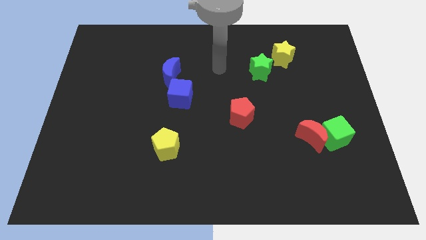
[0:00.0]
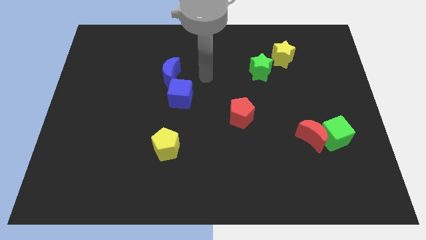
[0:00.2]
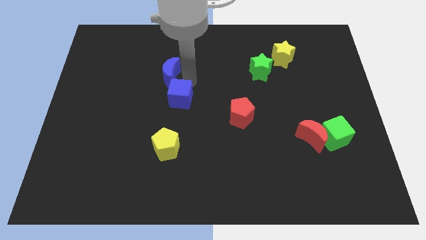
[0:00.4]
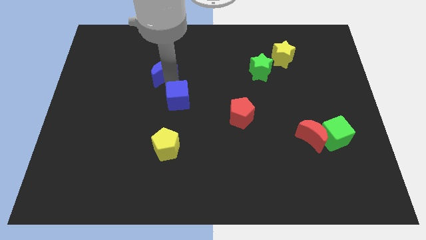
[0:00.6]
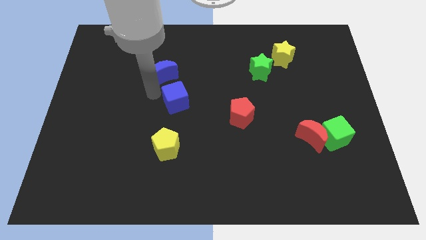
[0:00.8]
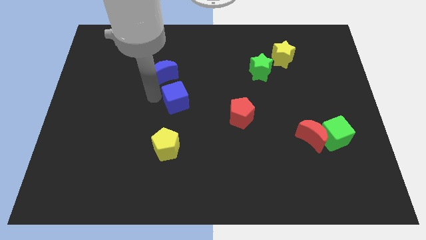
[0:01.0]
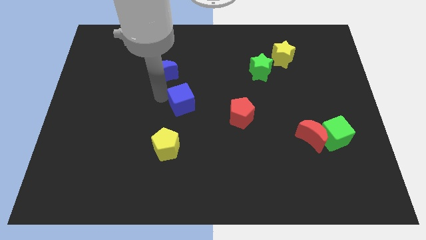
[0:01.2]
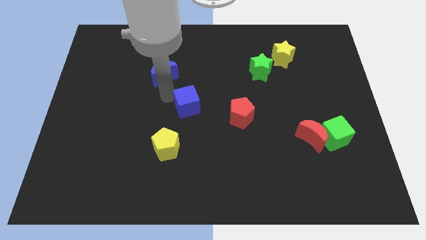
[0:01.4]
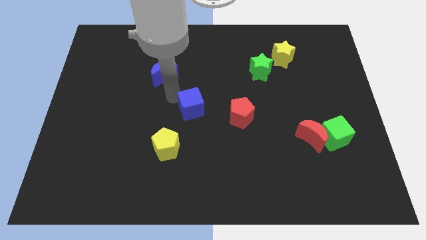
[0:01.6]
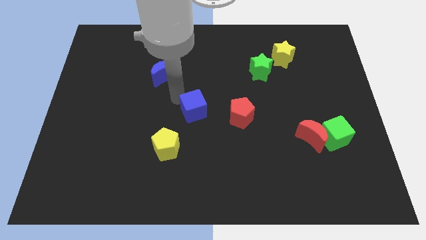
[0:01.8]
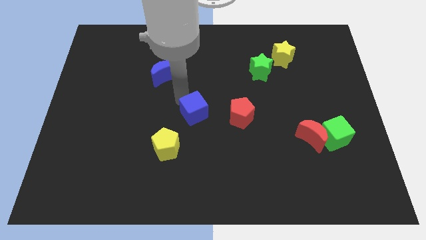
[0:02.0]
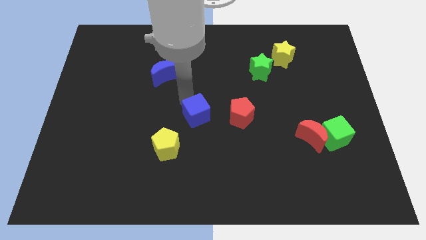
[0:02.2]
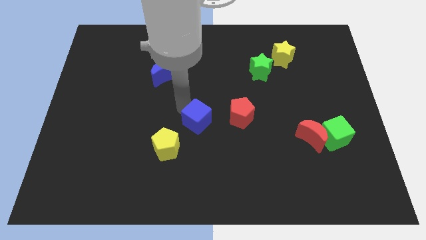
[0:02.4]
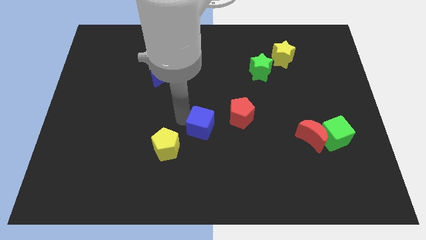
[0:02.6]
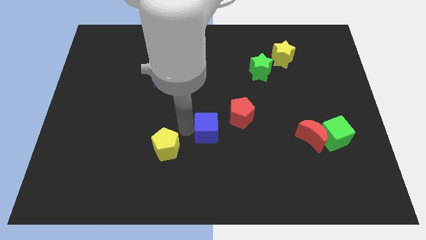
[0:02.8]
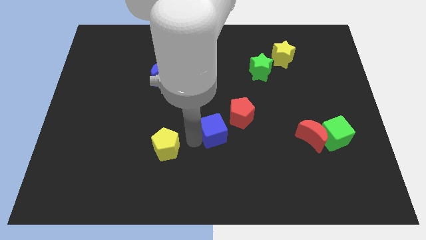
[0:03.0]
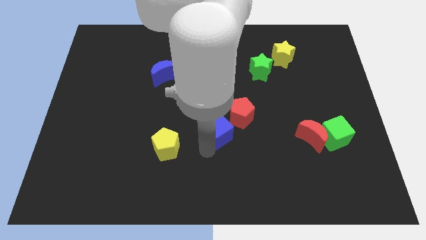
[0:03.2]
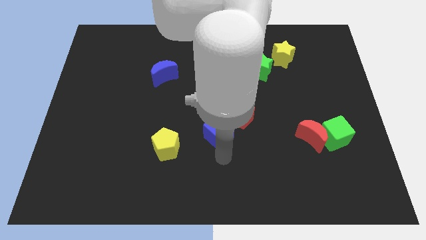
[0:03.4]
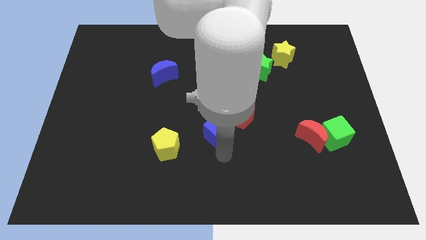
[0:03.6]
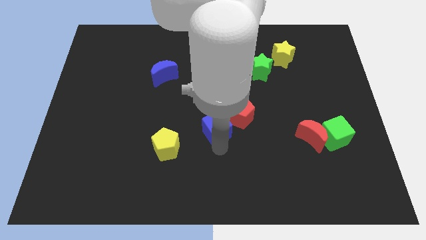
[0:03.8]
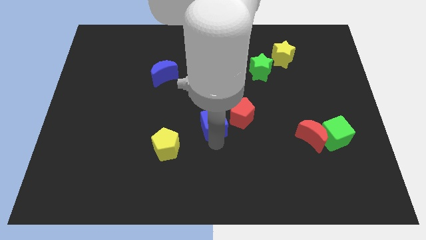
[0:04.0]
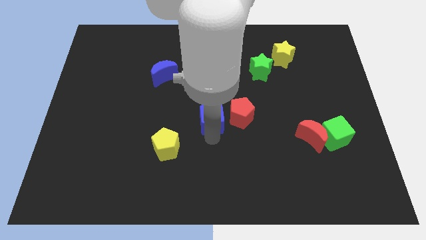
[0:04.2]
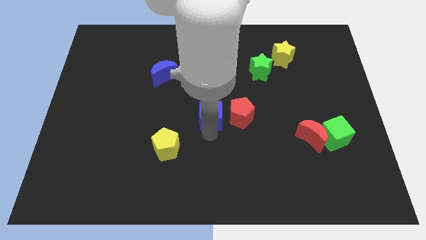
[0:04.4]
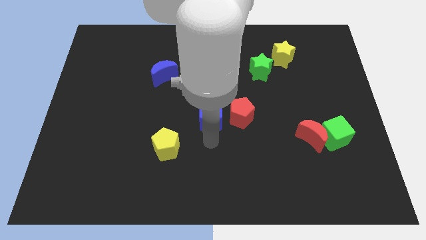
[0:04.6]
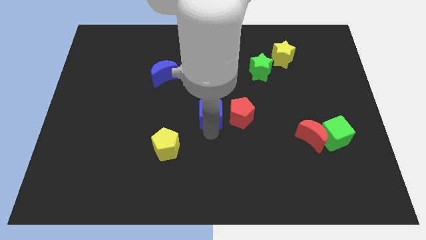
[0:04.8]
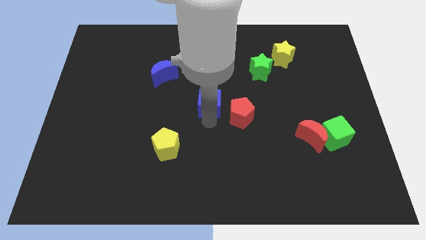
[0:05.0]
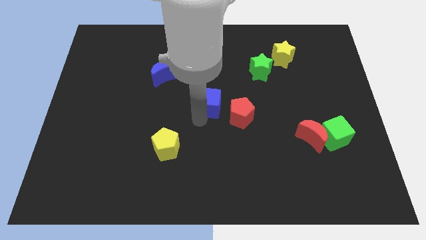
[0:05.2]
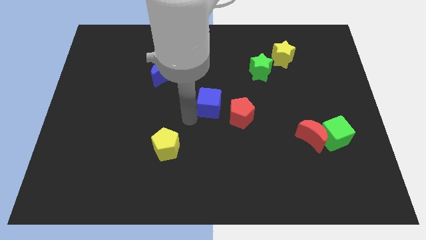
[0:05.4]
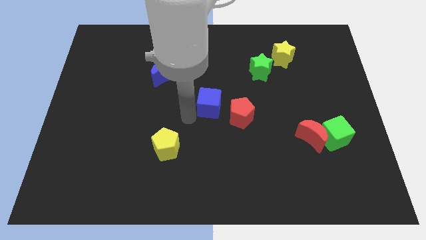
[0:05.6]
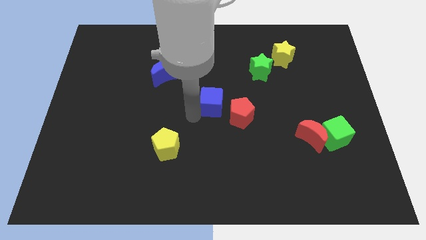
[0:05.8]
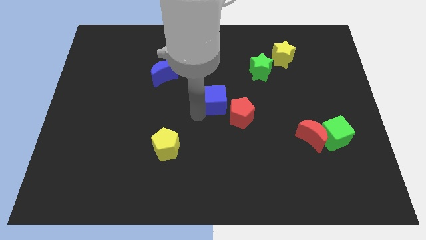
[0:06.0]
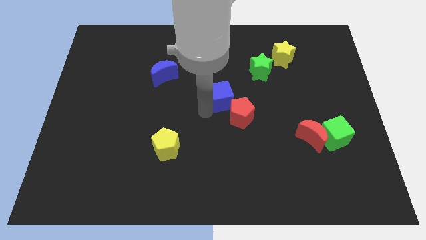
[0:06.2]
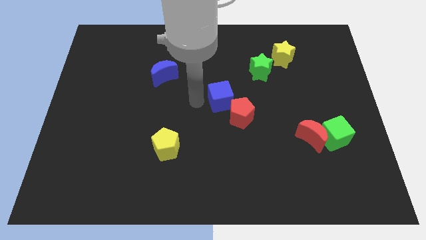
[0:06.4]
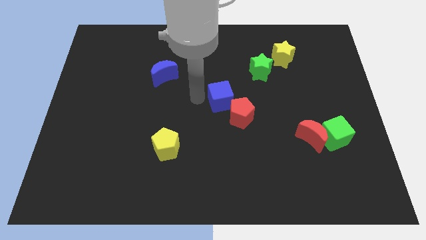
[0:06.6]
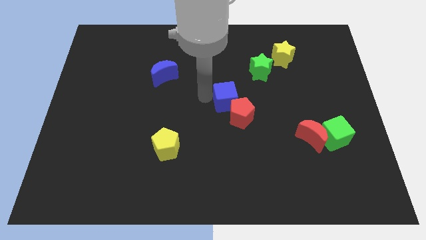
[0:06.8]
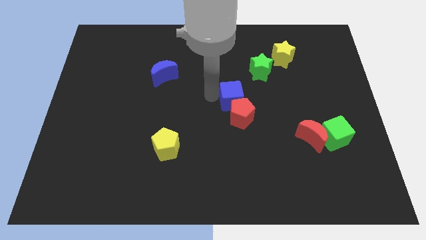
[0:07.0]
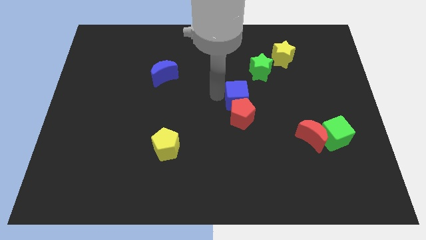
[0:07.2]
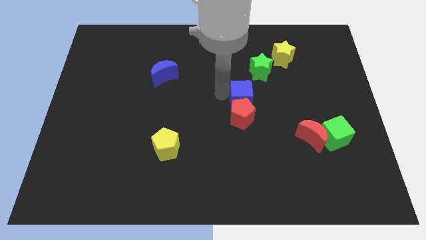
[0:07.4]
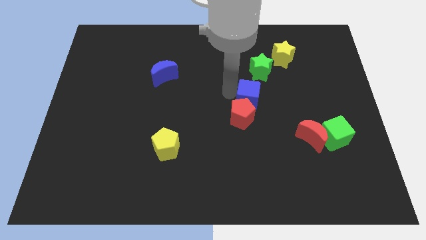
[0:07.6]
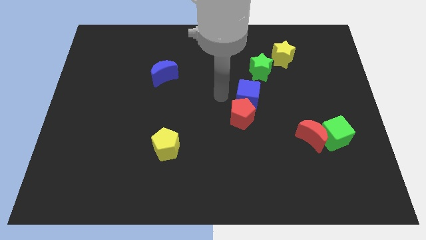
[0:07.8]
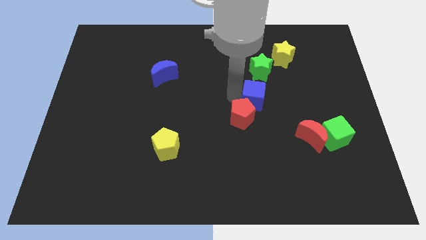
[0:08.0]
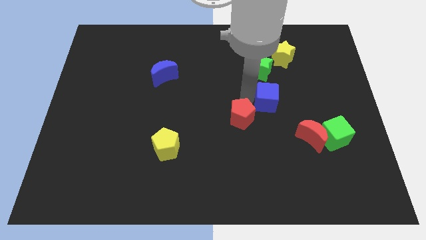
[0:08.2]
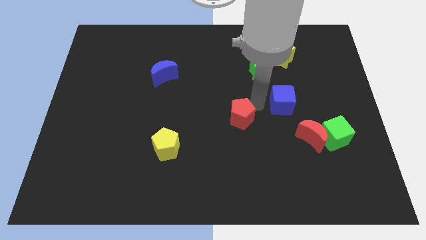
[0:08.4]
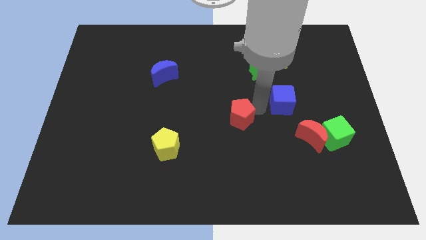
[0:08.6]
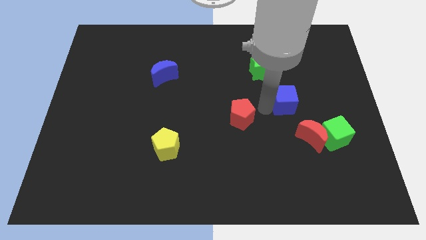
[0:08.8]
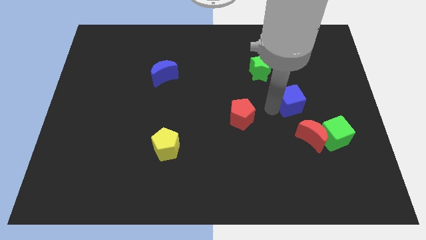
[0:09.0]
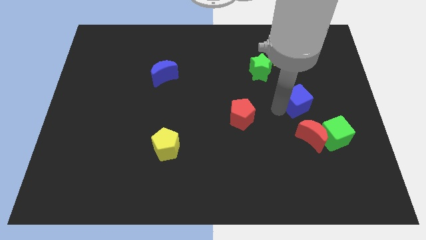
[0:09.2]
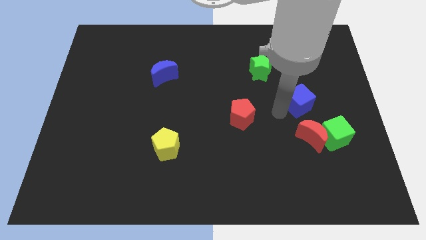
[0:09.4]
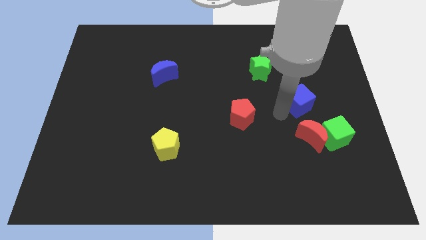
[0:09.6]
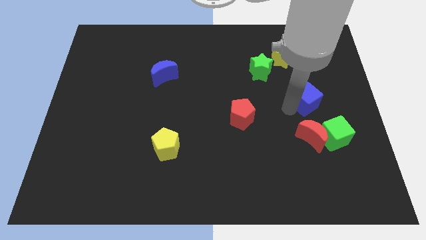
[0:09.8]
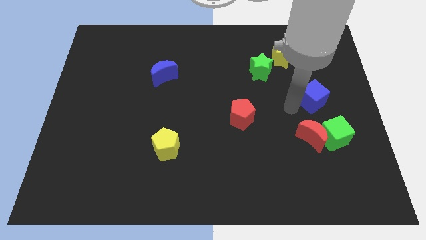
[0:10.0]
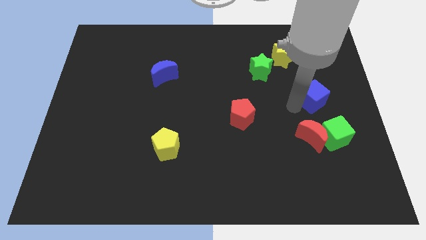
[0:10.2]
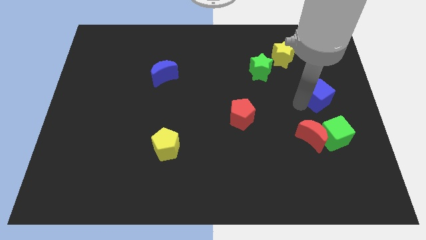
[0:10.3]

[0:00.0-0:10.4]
put the blue cube to the right side

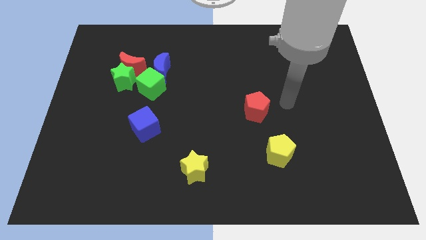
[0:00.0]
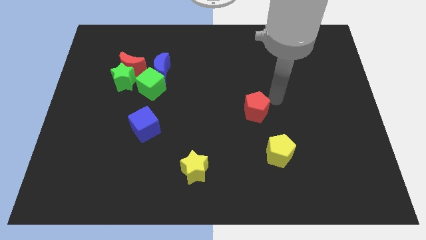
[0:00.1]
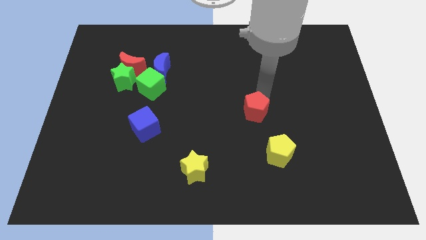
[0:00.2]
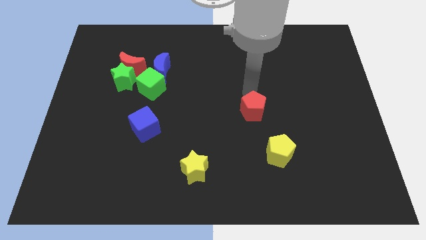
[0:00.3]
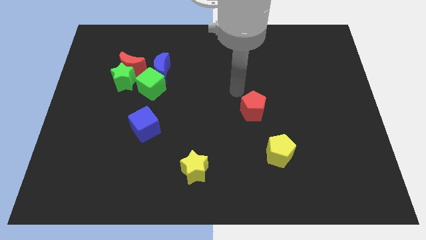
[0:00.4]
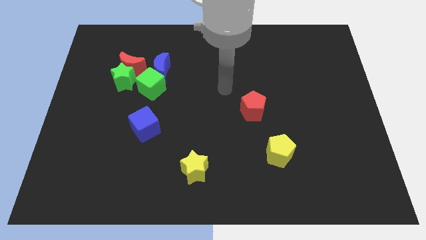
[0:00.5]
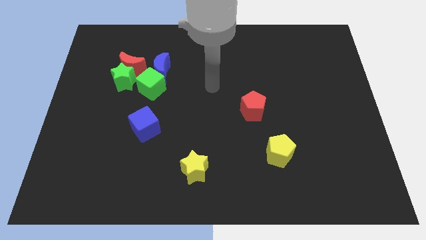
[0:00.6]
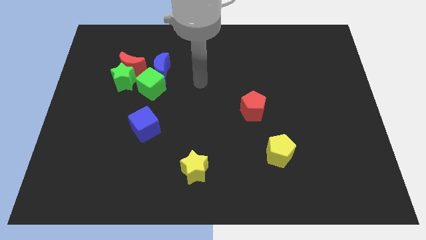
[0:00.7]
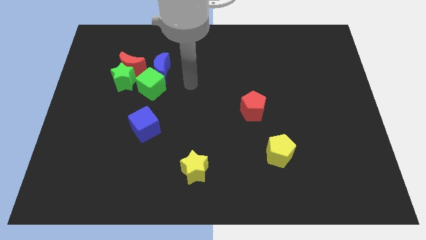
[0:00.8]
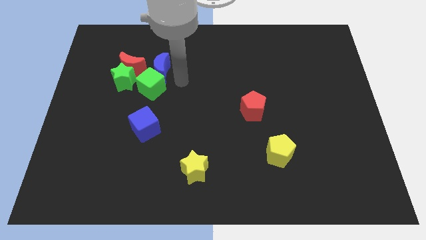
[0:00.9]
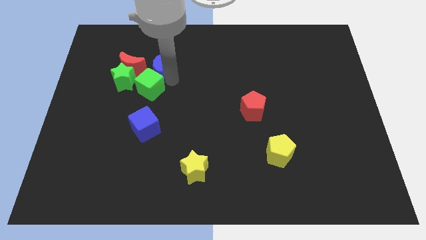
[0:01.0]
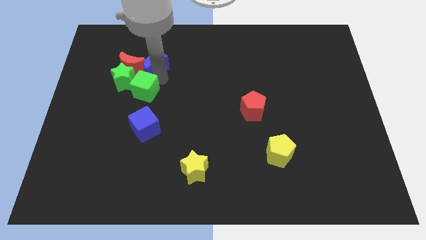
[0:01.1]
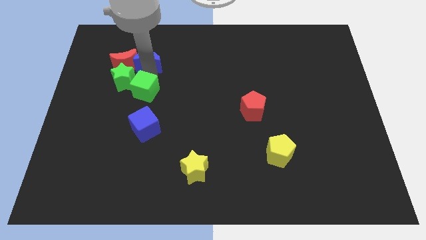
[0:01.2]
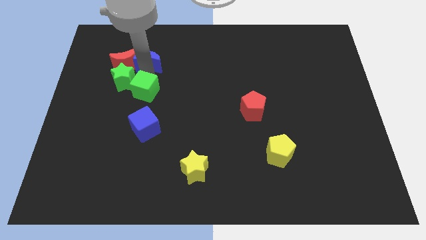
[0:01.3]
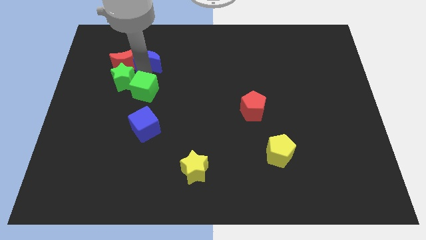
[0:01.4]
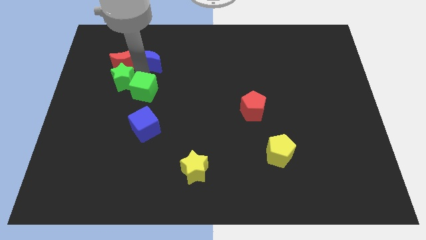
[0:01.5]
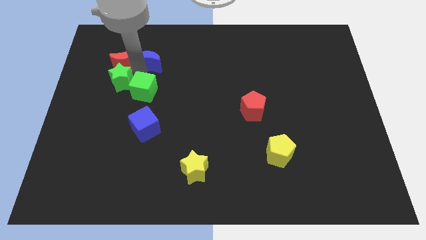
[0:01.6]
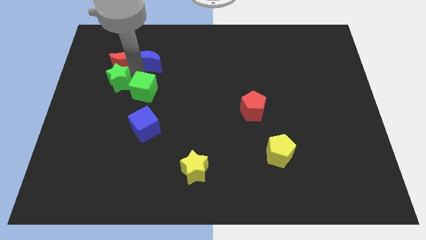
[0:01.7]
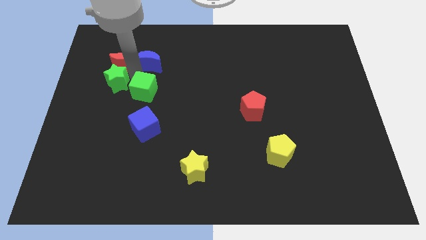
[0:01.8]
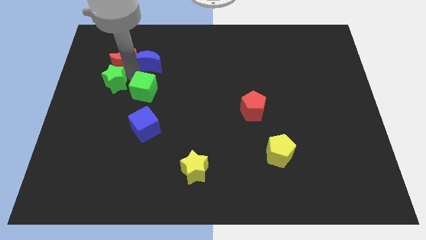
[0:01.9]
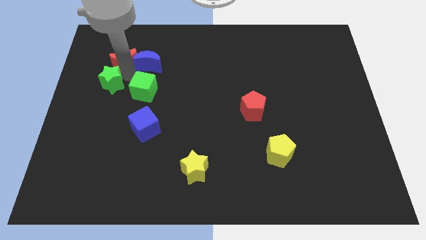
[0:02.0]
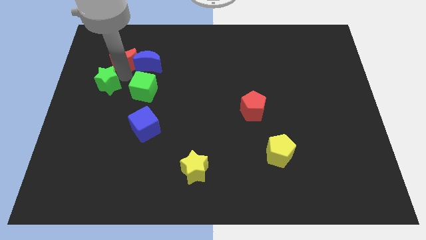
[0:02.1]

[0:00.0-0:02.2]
push the green star to the left side of the board
